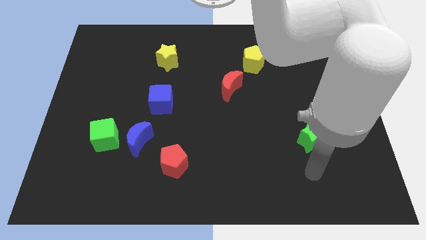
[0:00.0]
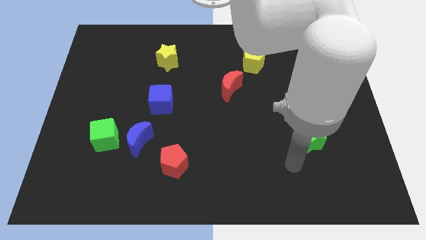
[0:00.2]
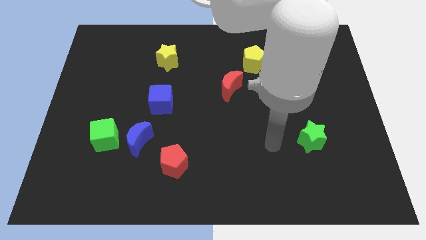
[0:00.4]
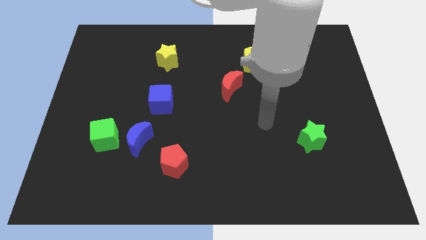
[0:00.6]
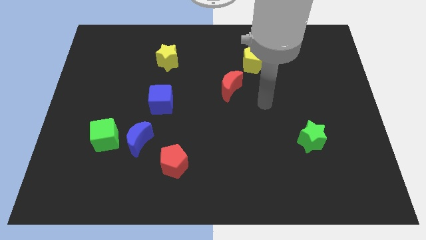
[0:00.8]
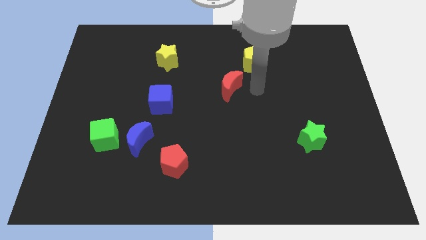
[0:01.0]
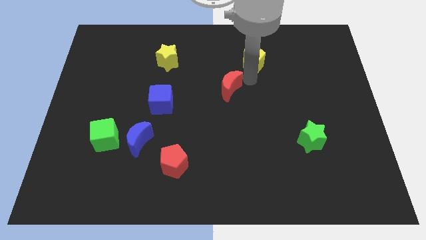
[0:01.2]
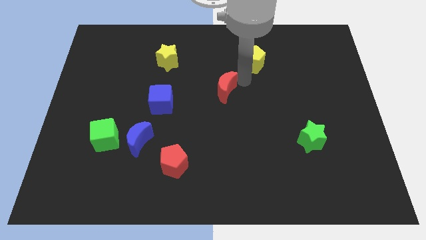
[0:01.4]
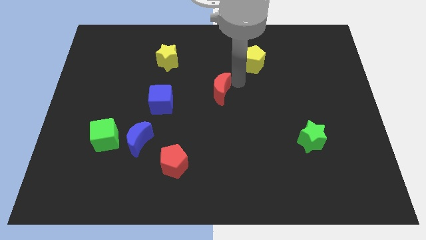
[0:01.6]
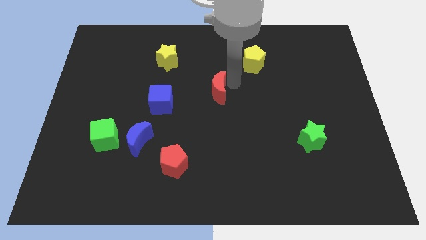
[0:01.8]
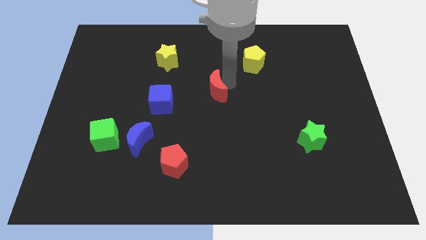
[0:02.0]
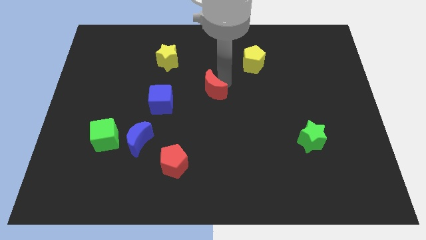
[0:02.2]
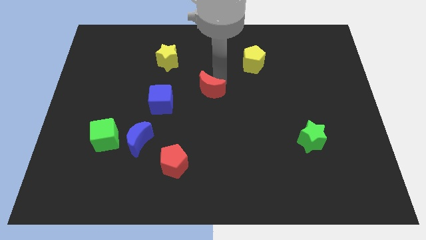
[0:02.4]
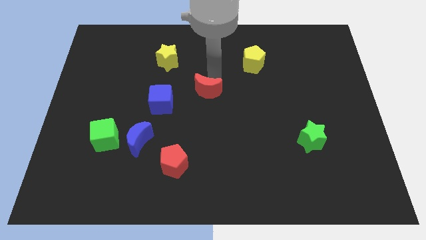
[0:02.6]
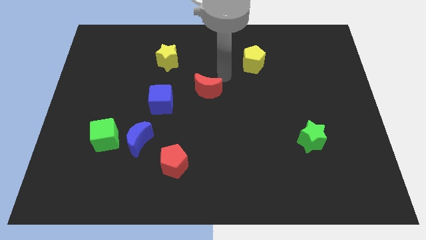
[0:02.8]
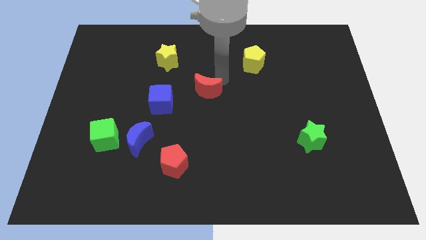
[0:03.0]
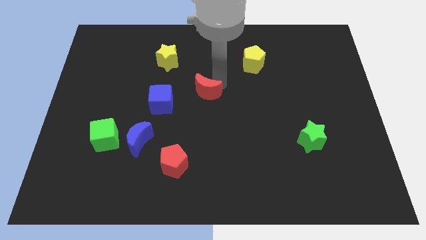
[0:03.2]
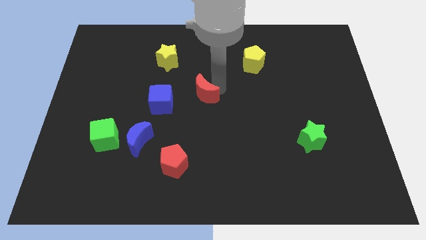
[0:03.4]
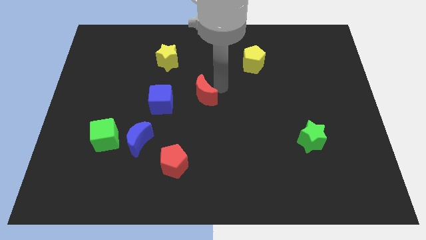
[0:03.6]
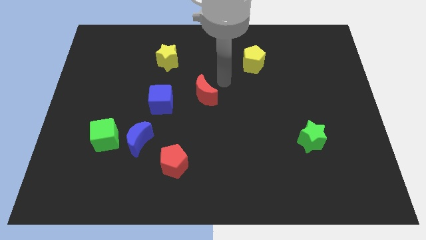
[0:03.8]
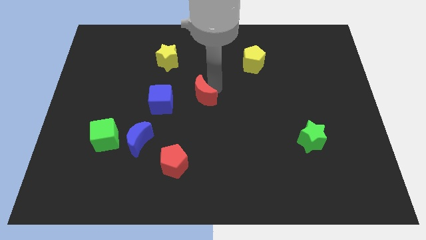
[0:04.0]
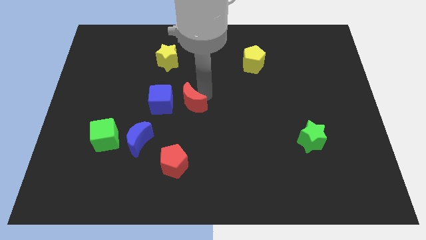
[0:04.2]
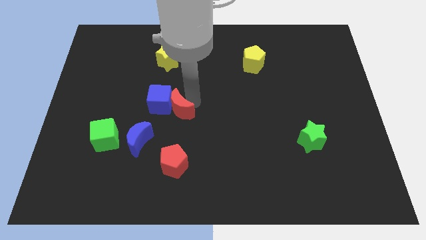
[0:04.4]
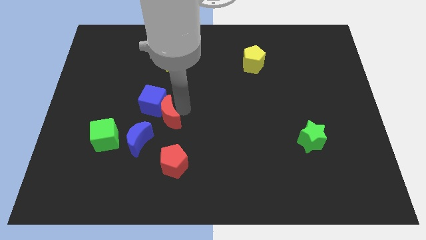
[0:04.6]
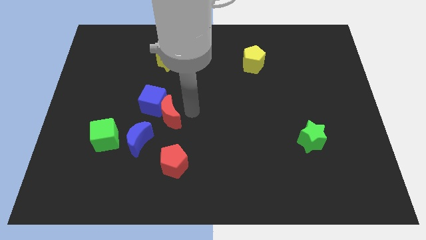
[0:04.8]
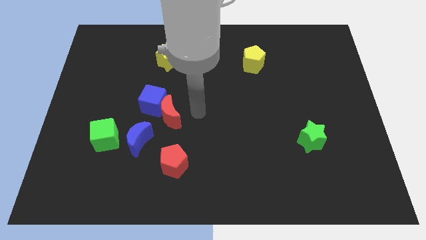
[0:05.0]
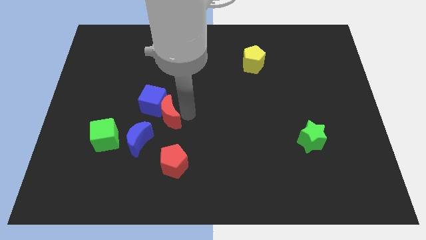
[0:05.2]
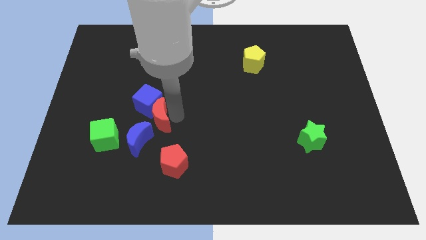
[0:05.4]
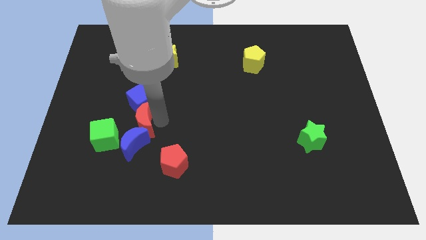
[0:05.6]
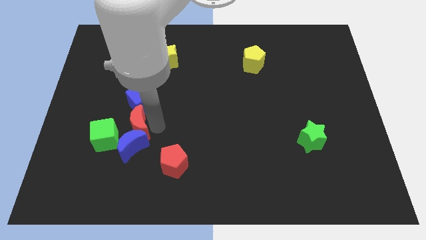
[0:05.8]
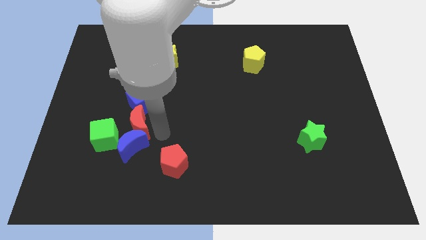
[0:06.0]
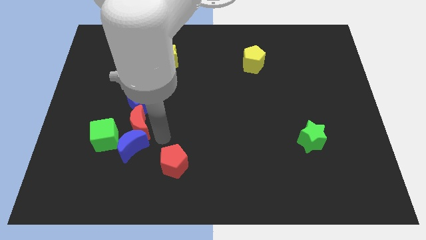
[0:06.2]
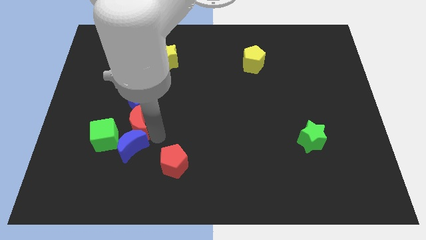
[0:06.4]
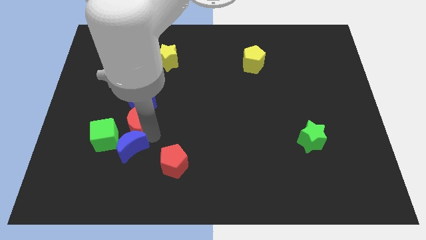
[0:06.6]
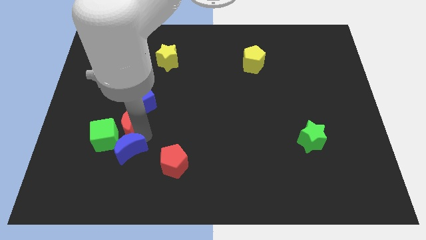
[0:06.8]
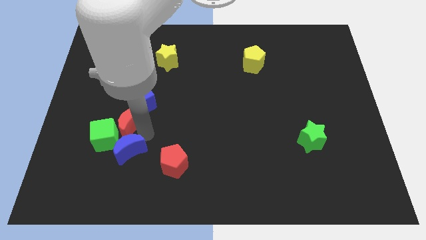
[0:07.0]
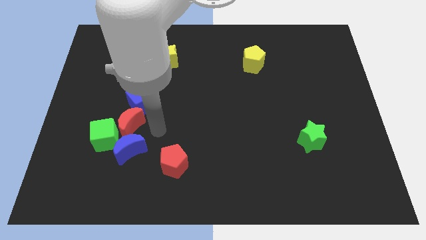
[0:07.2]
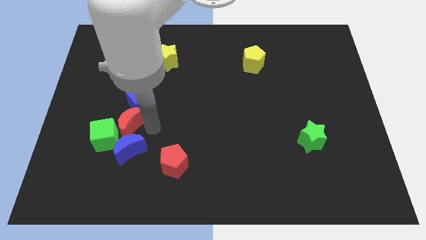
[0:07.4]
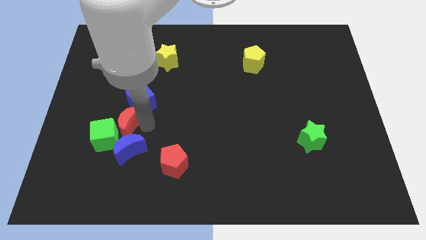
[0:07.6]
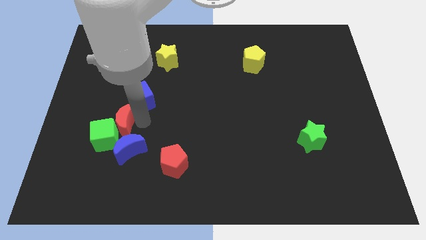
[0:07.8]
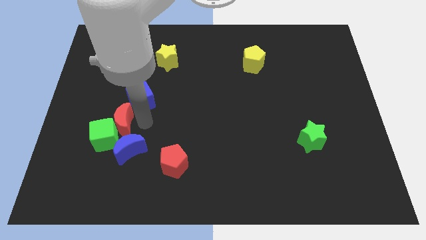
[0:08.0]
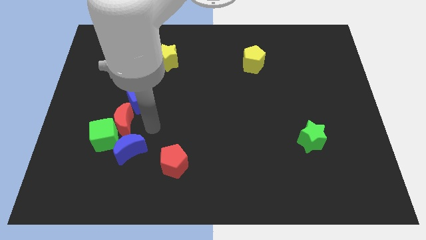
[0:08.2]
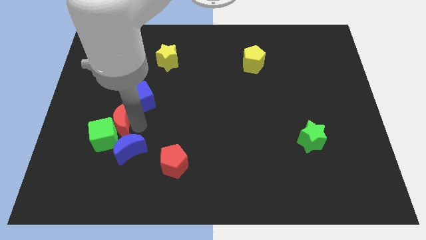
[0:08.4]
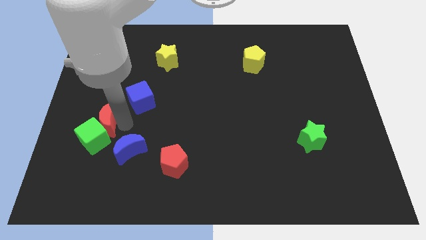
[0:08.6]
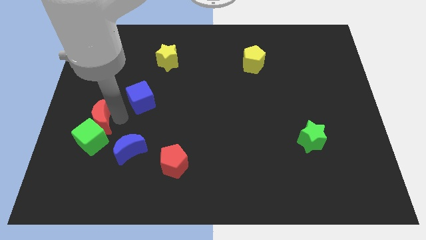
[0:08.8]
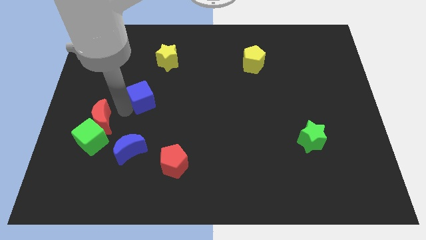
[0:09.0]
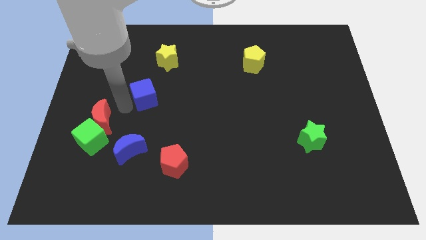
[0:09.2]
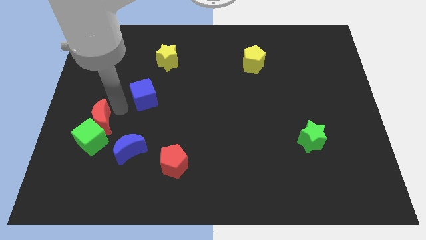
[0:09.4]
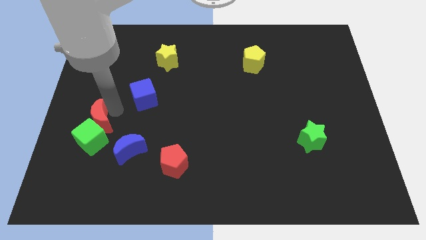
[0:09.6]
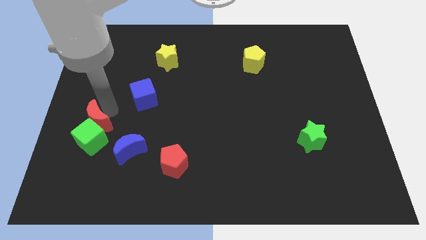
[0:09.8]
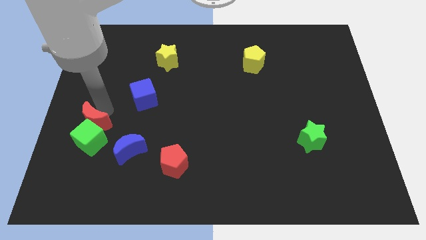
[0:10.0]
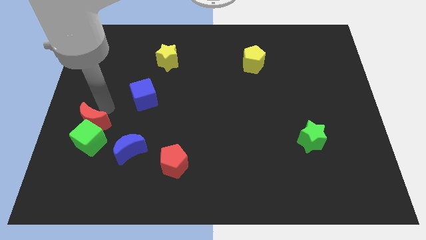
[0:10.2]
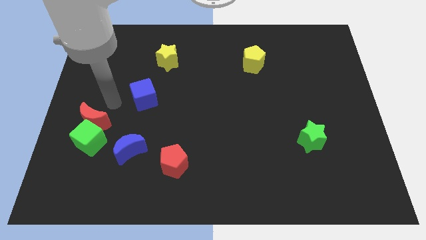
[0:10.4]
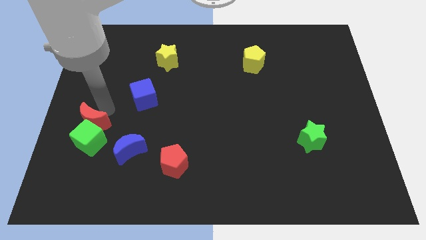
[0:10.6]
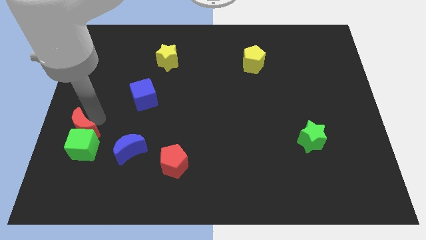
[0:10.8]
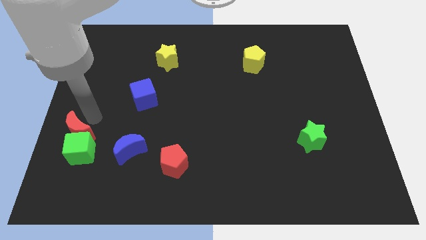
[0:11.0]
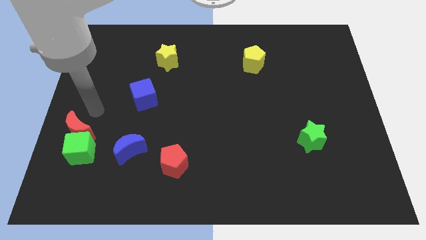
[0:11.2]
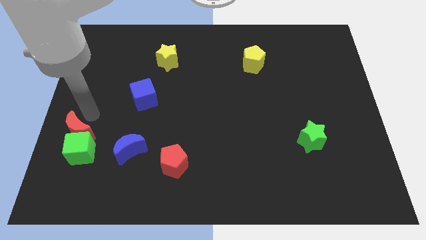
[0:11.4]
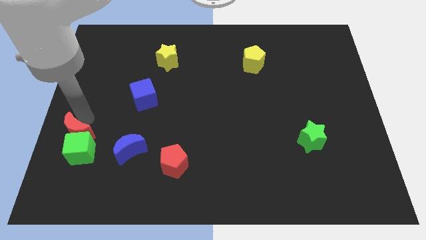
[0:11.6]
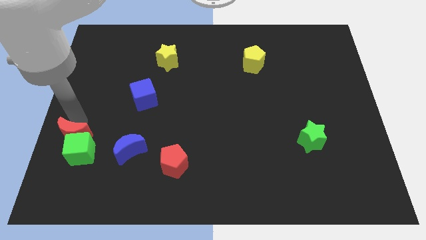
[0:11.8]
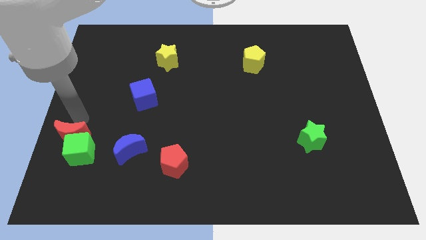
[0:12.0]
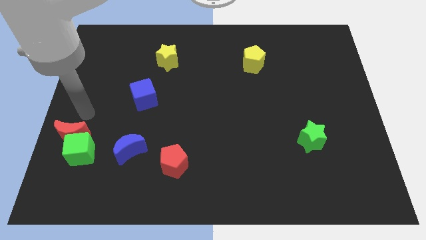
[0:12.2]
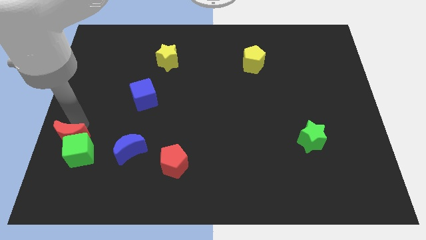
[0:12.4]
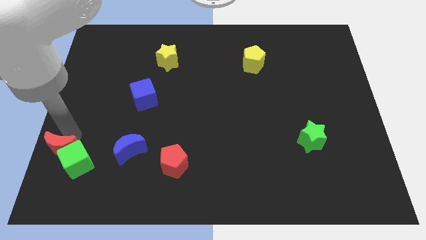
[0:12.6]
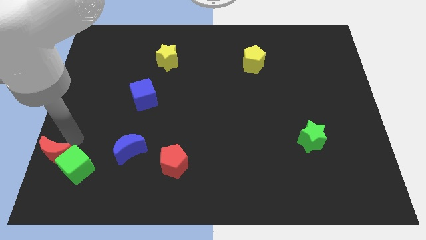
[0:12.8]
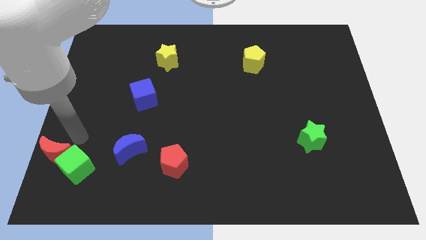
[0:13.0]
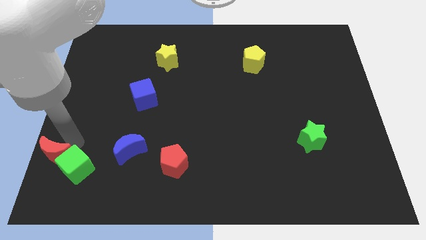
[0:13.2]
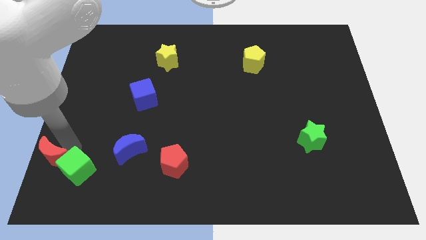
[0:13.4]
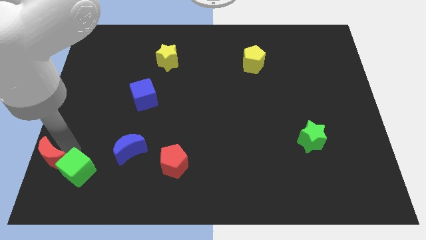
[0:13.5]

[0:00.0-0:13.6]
put the red moon to the lower left corner
